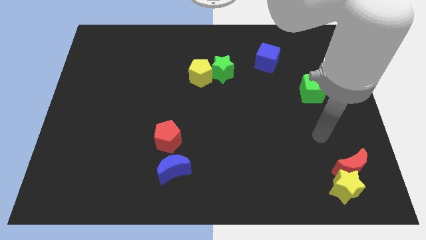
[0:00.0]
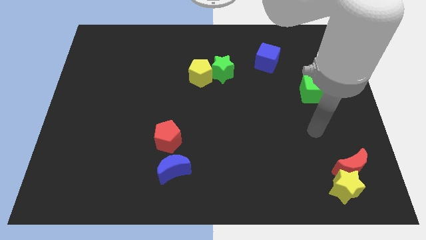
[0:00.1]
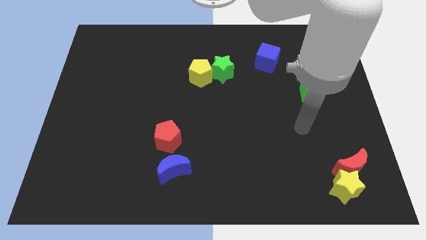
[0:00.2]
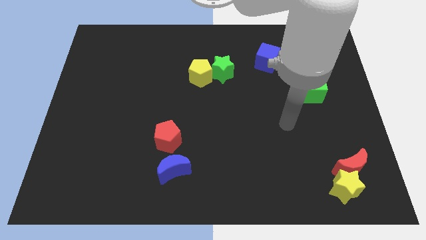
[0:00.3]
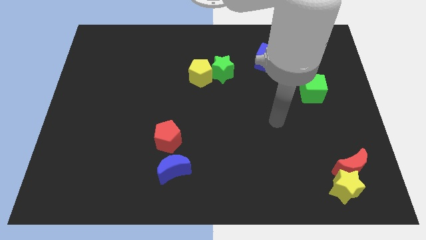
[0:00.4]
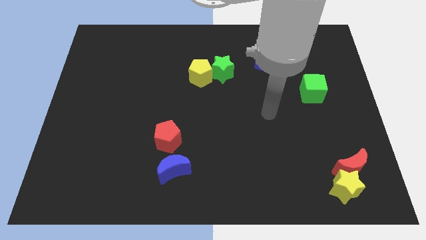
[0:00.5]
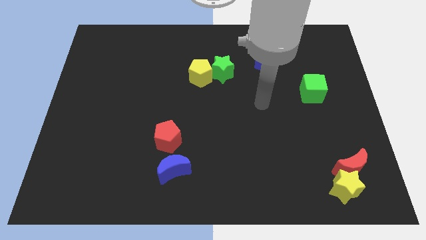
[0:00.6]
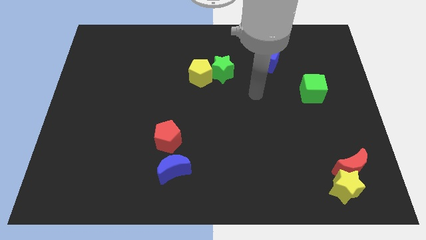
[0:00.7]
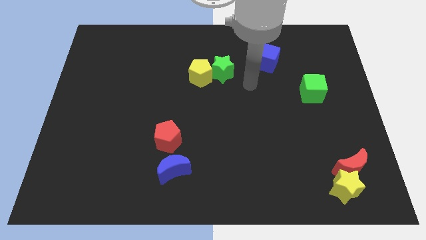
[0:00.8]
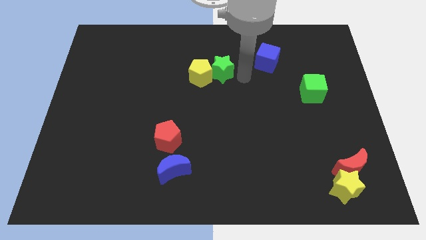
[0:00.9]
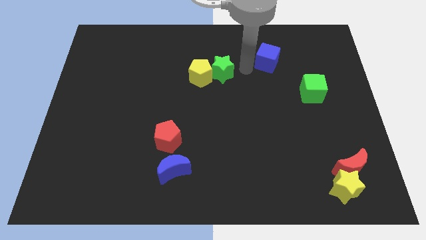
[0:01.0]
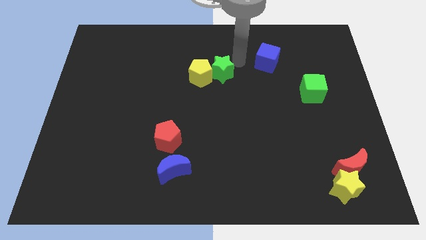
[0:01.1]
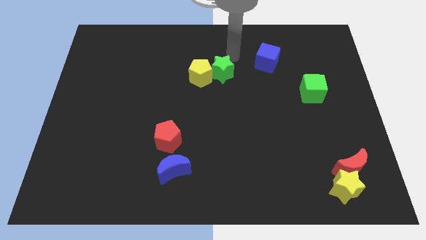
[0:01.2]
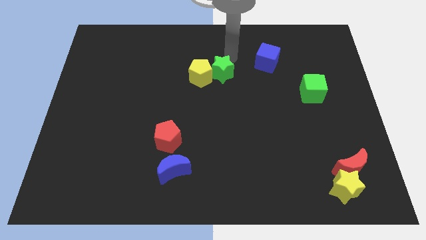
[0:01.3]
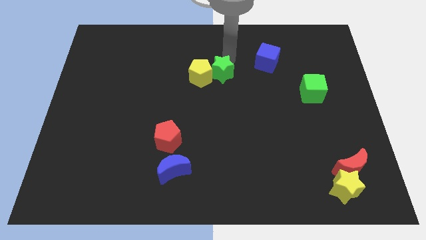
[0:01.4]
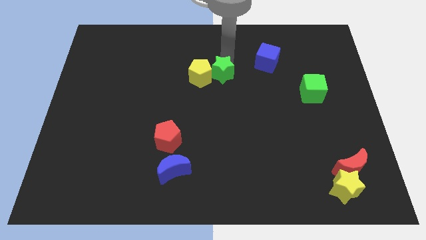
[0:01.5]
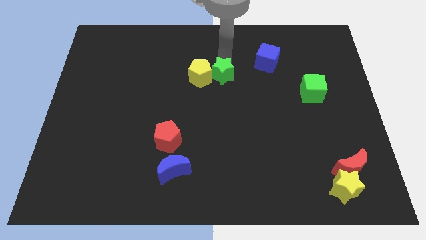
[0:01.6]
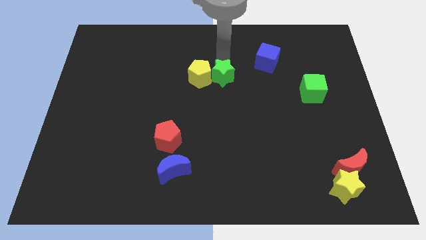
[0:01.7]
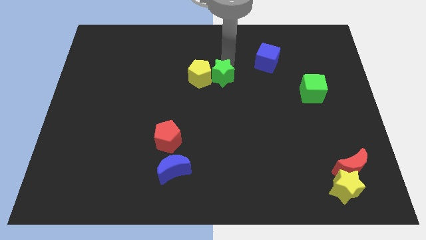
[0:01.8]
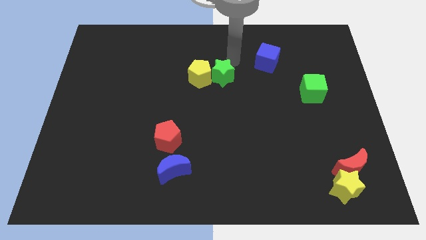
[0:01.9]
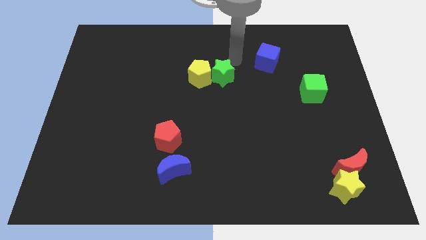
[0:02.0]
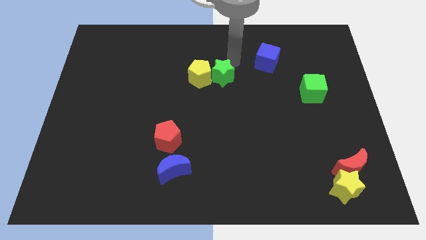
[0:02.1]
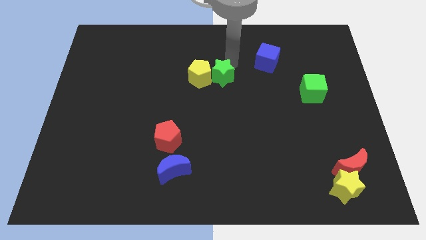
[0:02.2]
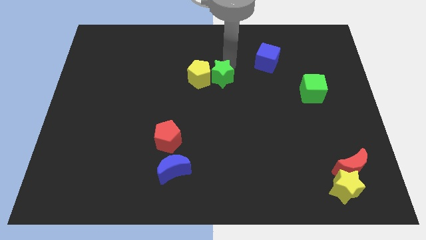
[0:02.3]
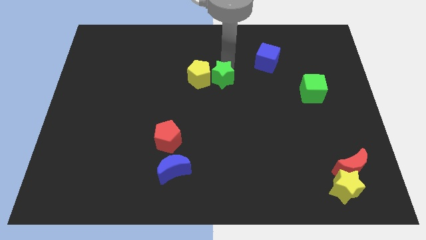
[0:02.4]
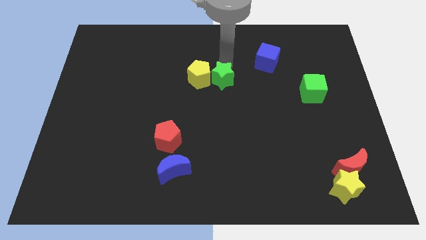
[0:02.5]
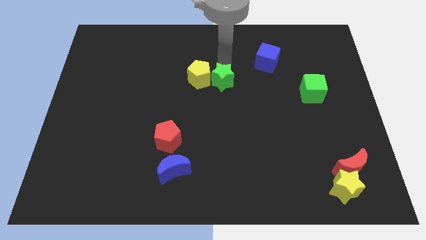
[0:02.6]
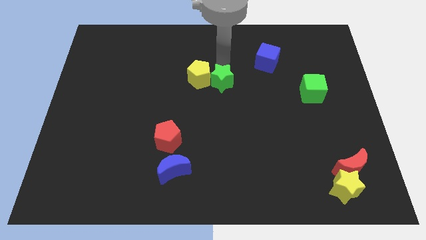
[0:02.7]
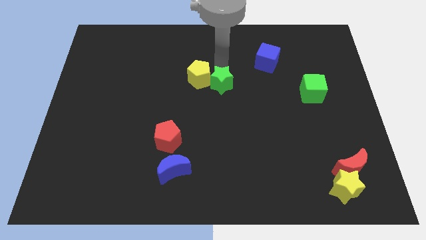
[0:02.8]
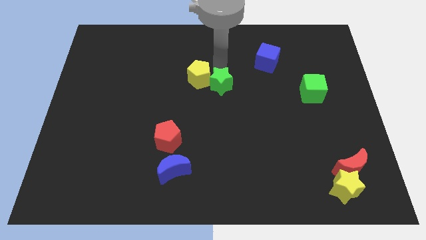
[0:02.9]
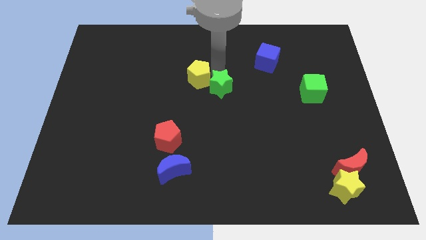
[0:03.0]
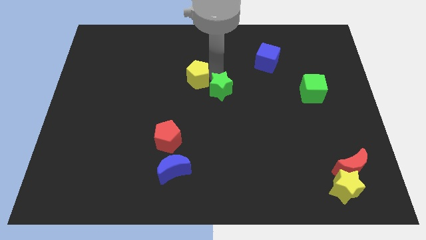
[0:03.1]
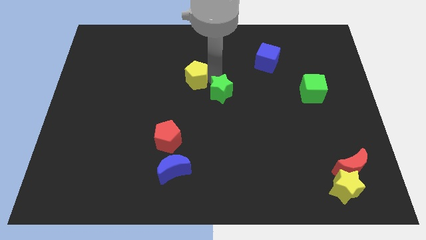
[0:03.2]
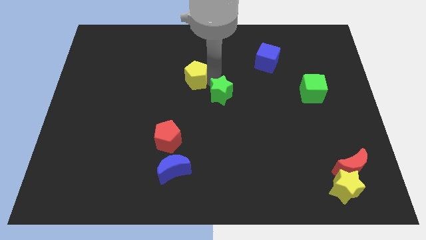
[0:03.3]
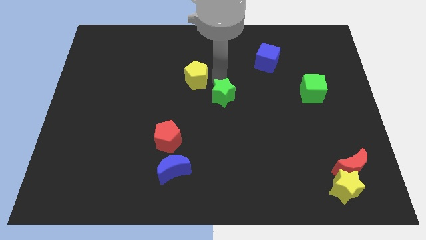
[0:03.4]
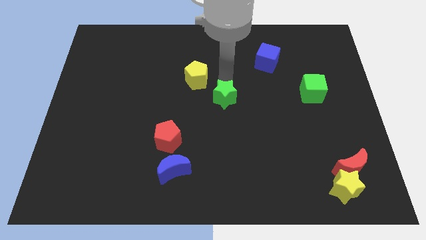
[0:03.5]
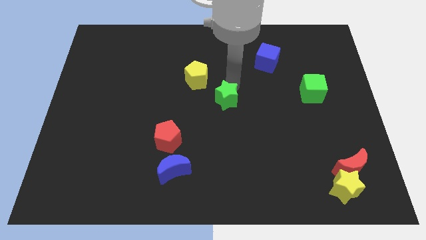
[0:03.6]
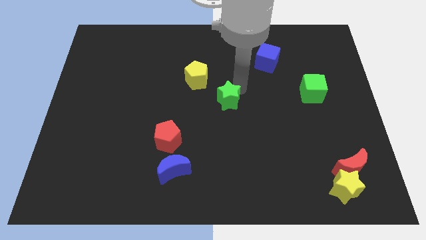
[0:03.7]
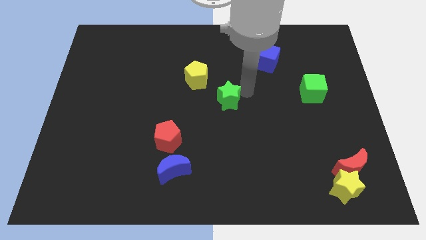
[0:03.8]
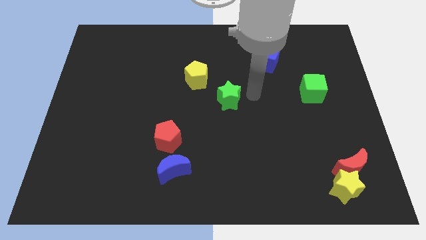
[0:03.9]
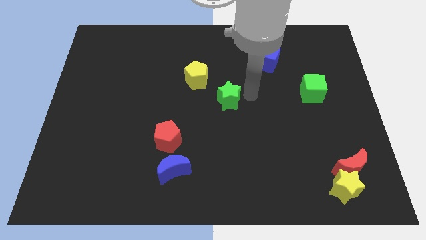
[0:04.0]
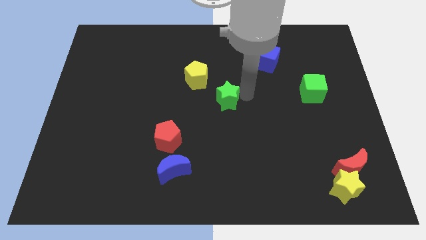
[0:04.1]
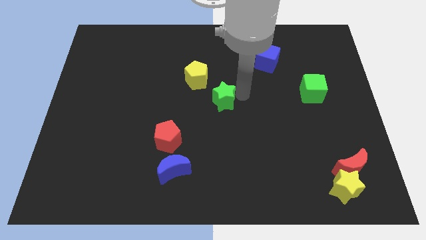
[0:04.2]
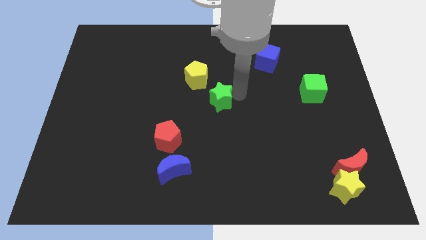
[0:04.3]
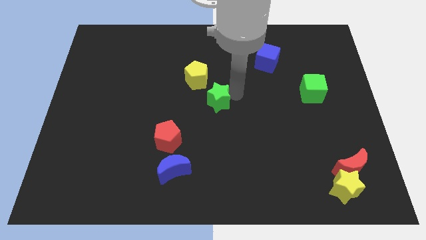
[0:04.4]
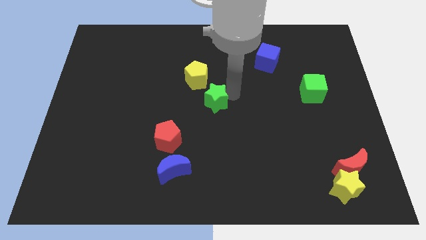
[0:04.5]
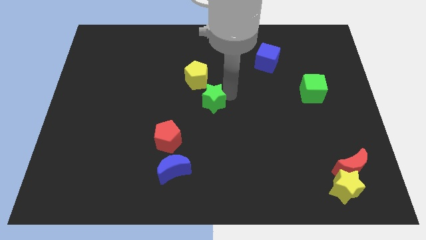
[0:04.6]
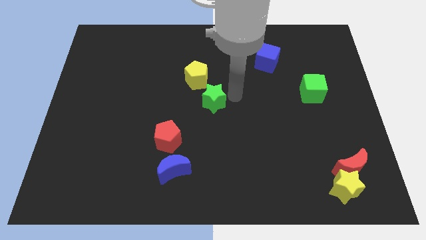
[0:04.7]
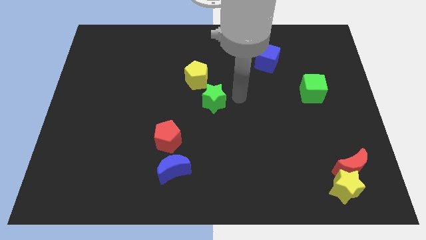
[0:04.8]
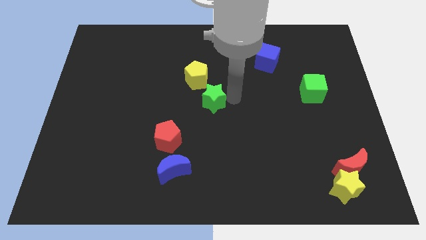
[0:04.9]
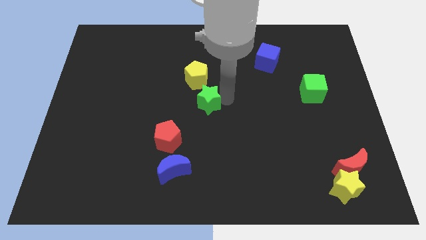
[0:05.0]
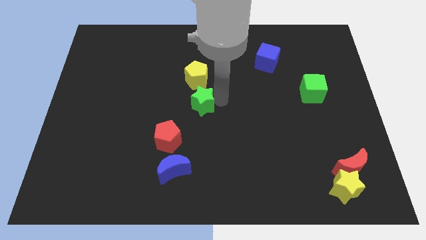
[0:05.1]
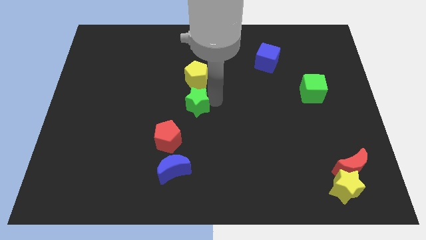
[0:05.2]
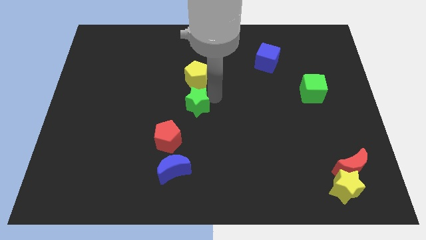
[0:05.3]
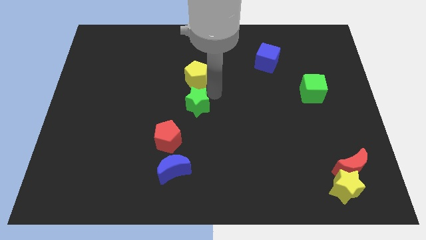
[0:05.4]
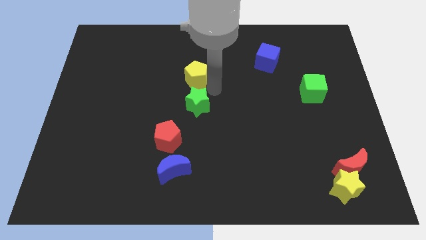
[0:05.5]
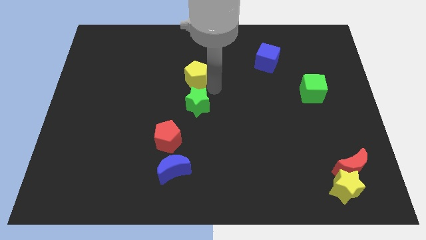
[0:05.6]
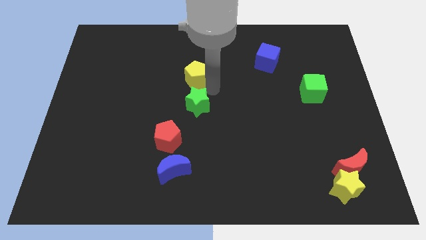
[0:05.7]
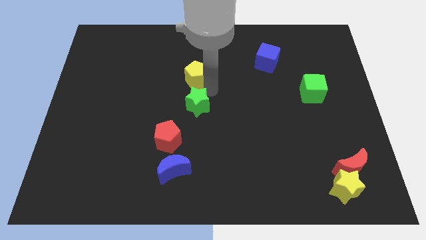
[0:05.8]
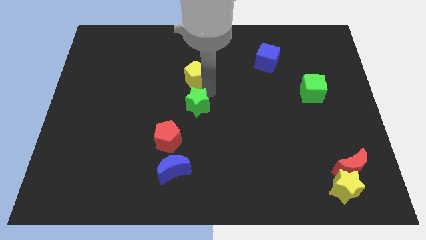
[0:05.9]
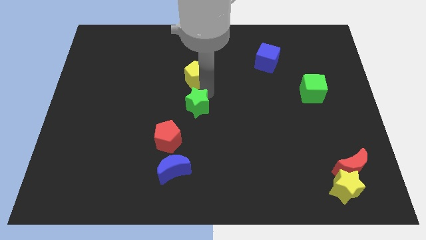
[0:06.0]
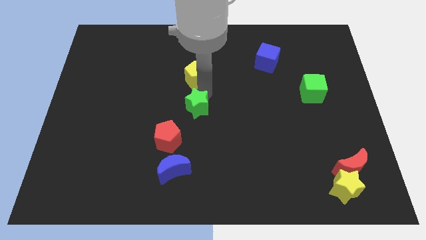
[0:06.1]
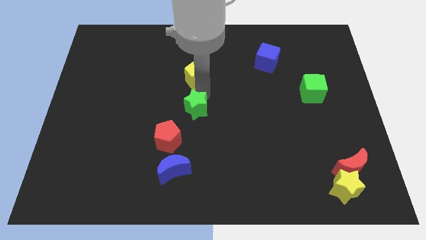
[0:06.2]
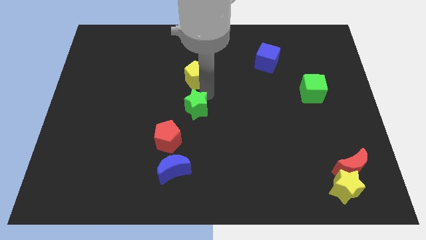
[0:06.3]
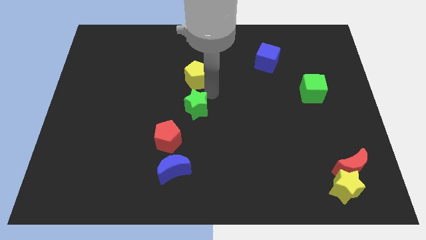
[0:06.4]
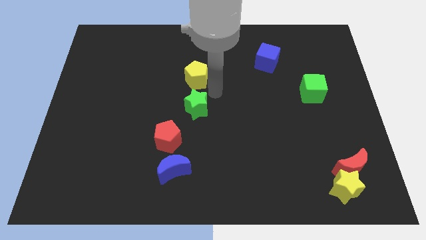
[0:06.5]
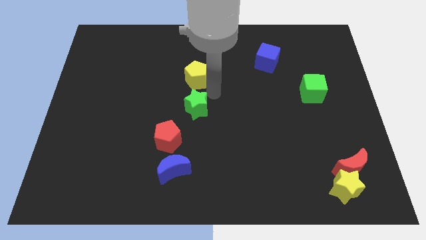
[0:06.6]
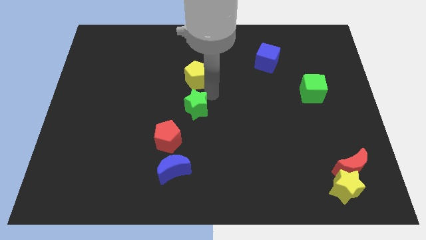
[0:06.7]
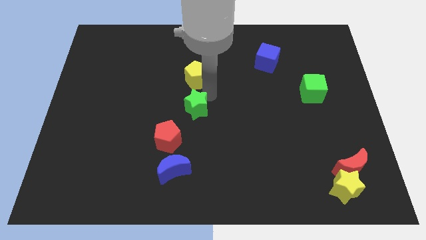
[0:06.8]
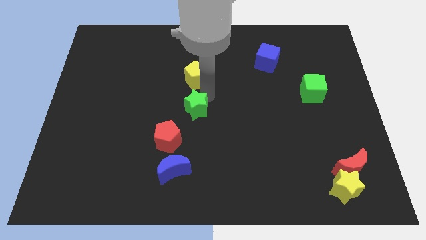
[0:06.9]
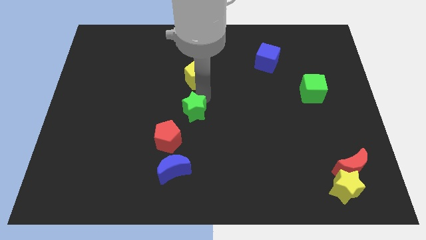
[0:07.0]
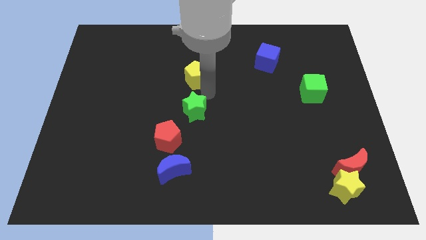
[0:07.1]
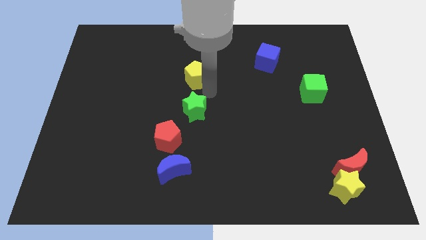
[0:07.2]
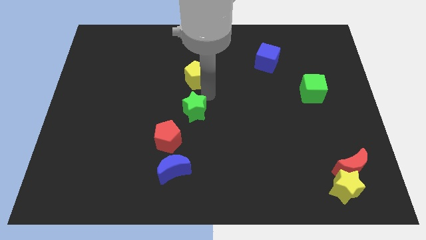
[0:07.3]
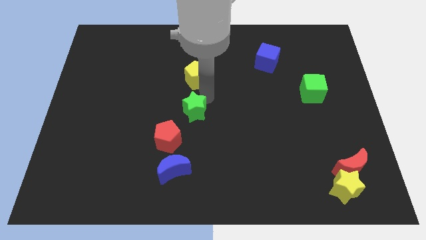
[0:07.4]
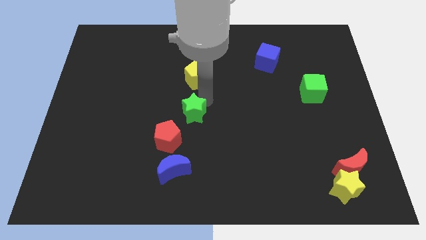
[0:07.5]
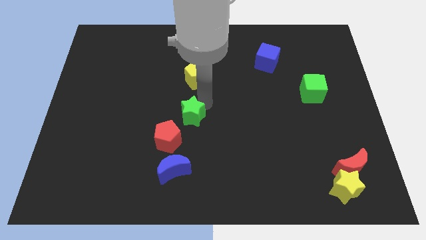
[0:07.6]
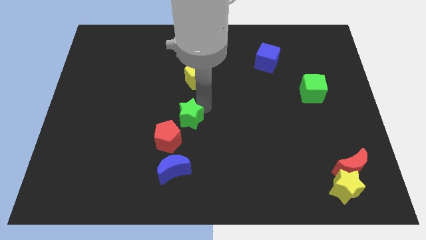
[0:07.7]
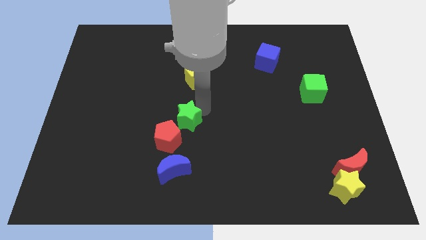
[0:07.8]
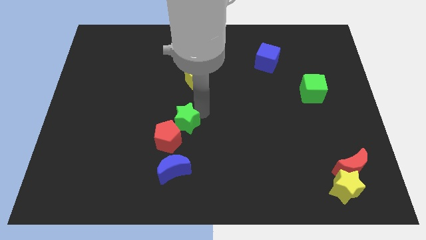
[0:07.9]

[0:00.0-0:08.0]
push the green star to the red pentagon
